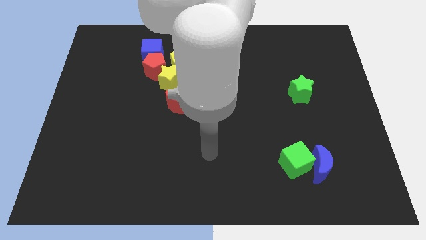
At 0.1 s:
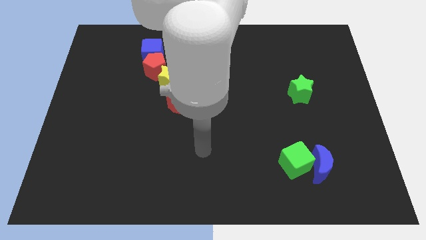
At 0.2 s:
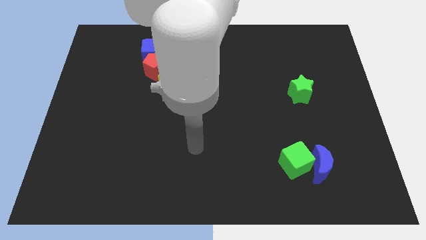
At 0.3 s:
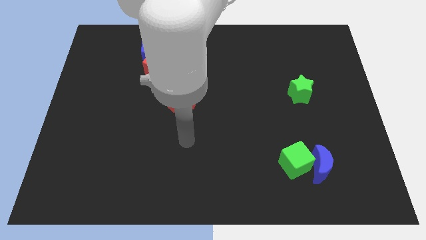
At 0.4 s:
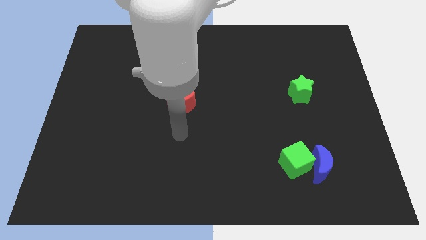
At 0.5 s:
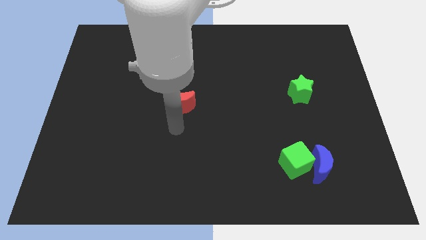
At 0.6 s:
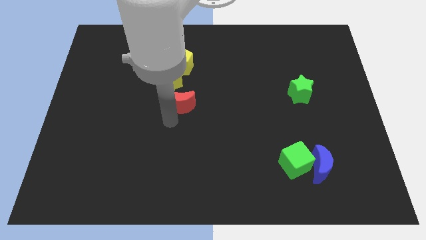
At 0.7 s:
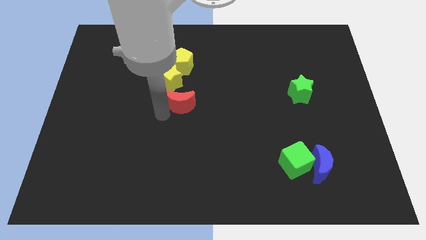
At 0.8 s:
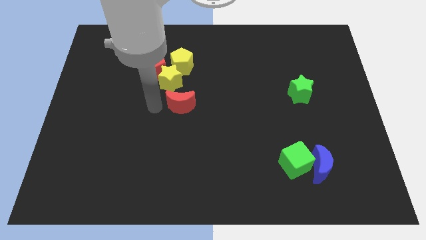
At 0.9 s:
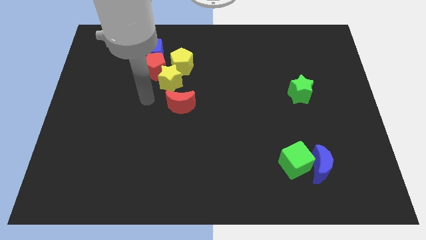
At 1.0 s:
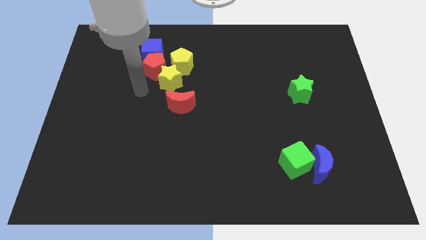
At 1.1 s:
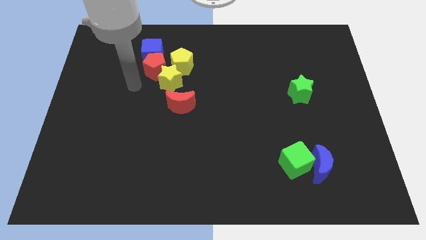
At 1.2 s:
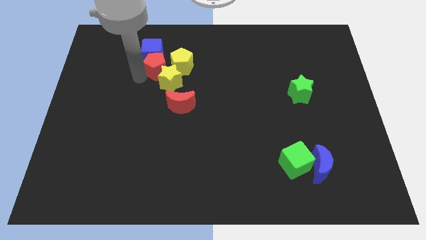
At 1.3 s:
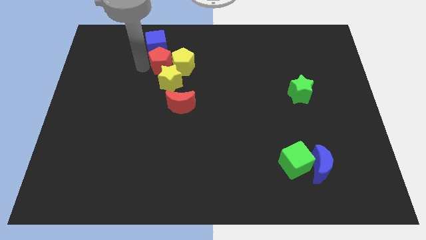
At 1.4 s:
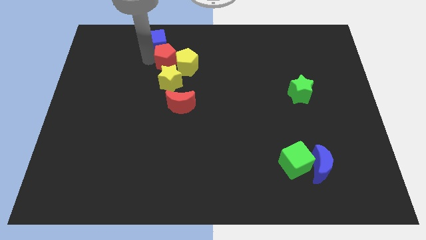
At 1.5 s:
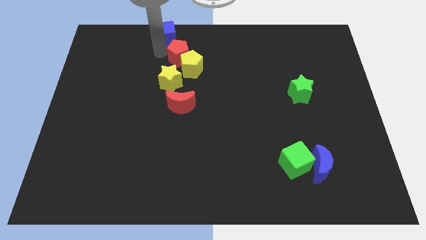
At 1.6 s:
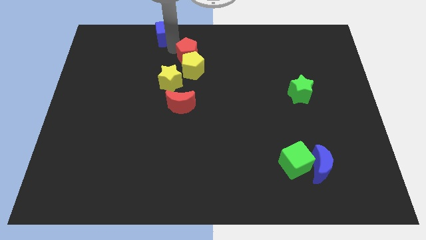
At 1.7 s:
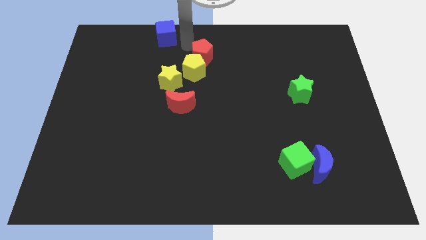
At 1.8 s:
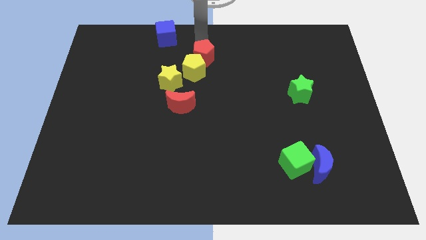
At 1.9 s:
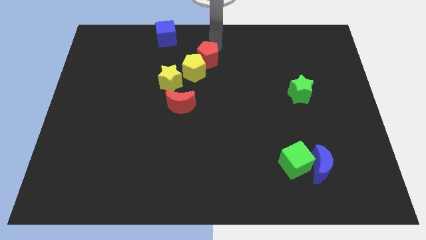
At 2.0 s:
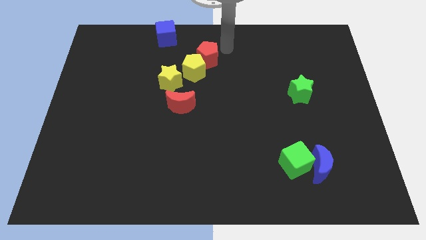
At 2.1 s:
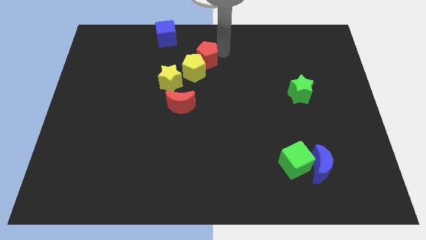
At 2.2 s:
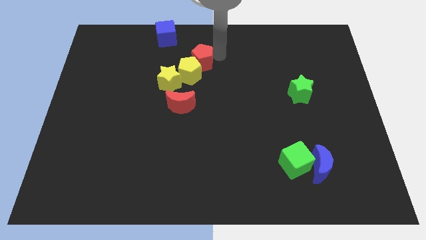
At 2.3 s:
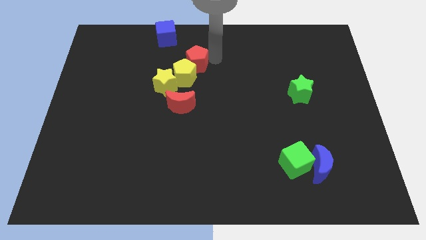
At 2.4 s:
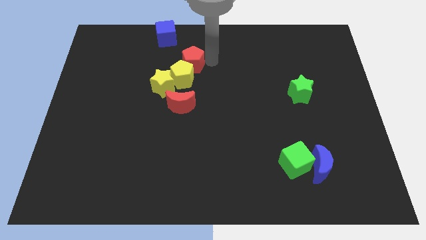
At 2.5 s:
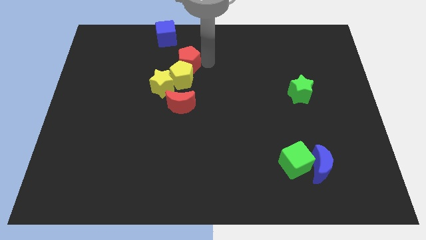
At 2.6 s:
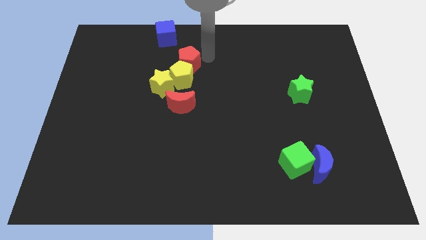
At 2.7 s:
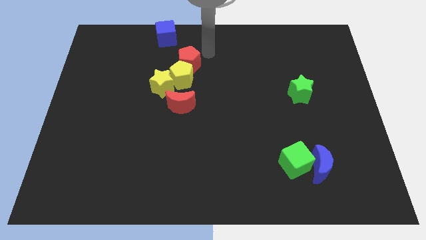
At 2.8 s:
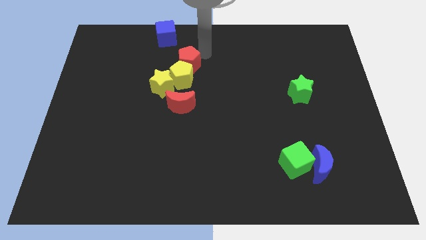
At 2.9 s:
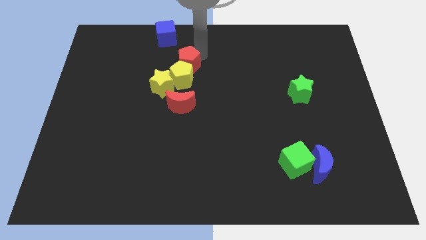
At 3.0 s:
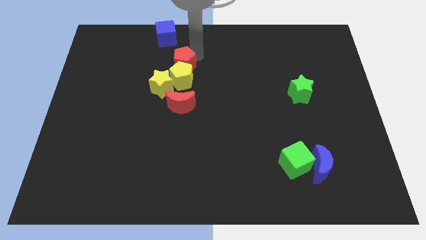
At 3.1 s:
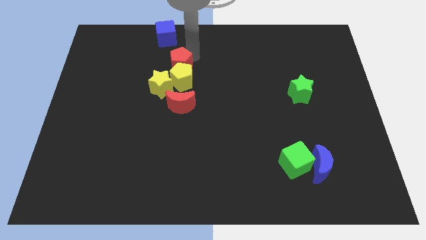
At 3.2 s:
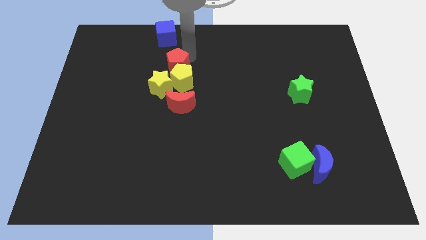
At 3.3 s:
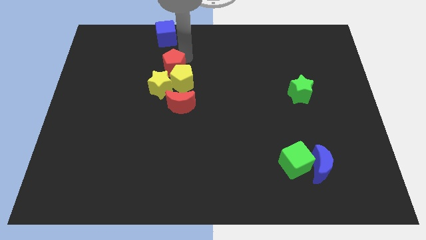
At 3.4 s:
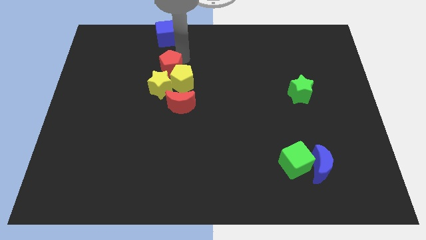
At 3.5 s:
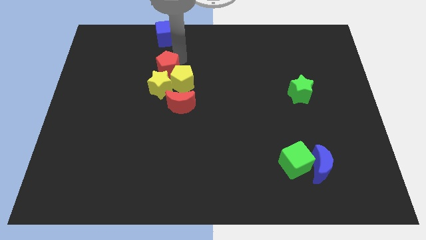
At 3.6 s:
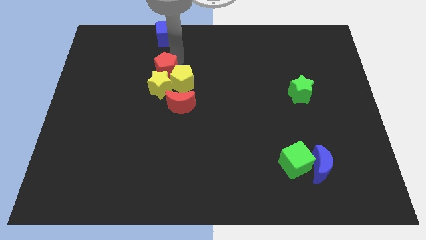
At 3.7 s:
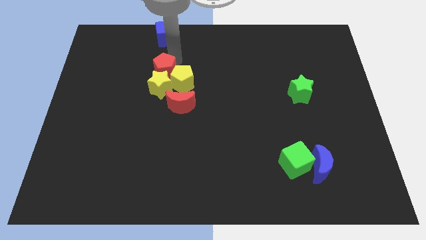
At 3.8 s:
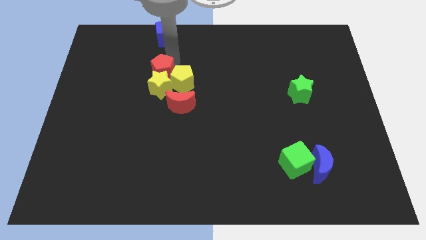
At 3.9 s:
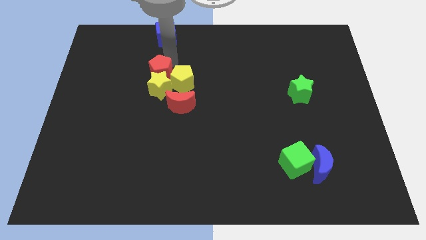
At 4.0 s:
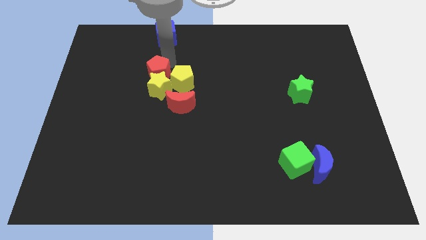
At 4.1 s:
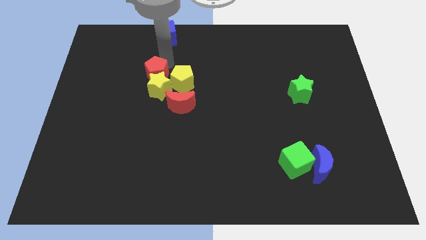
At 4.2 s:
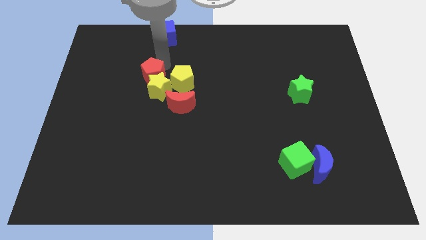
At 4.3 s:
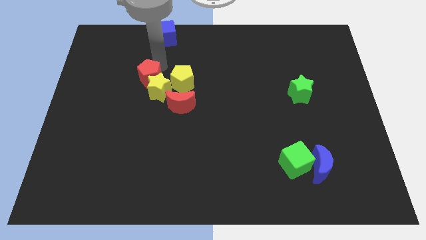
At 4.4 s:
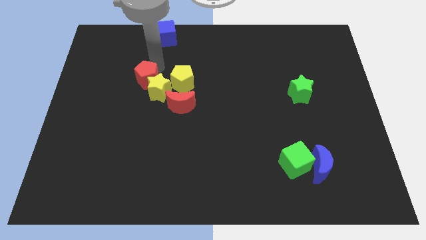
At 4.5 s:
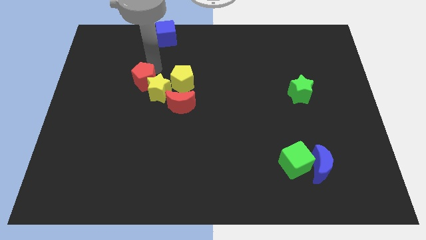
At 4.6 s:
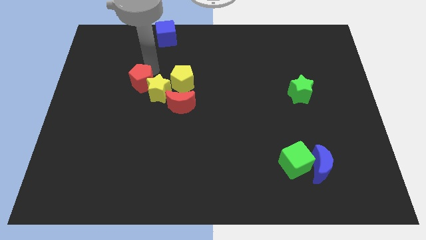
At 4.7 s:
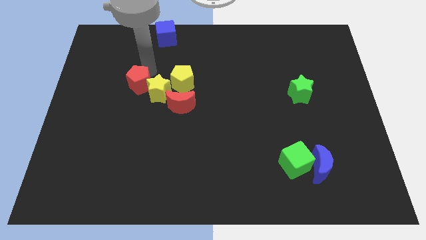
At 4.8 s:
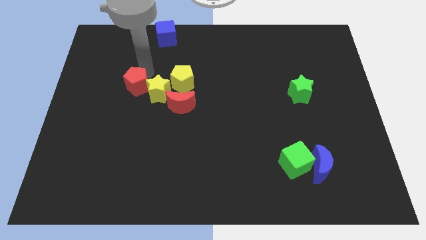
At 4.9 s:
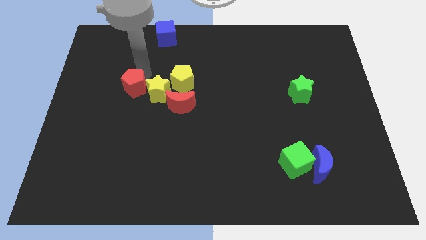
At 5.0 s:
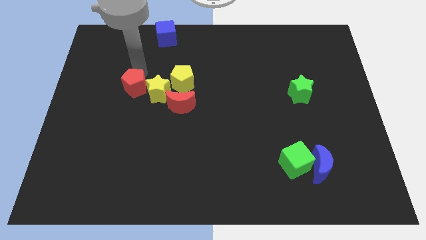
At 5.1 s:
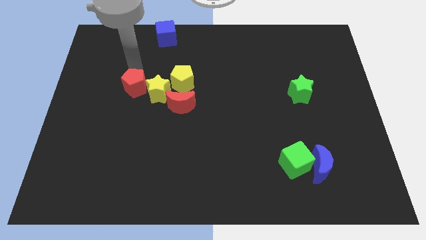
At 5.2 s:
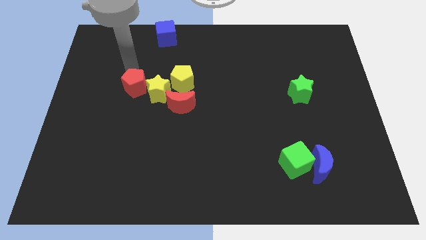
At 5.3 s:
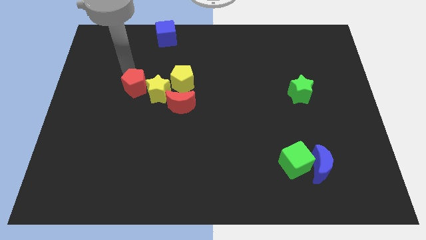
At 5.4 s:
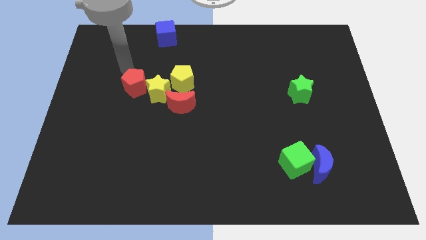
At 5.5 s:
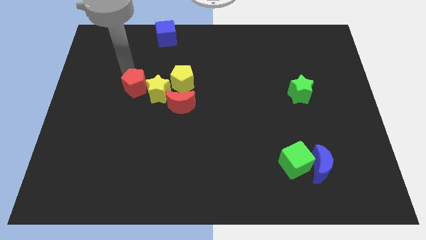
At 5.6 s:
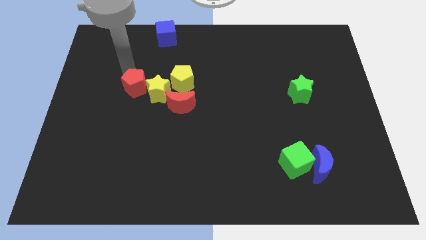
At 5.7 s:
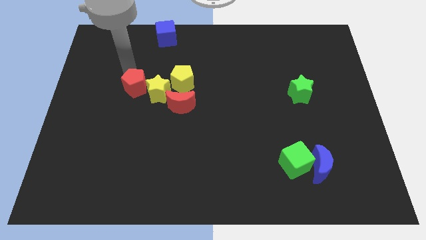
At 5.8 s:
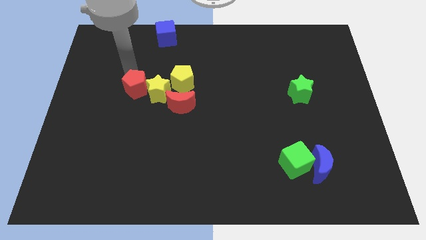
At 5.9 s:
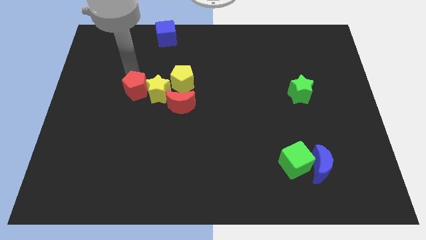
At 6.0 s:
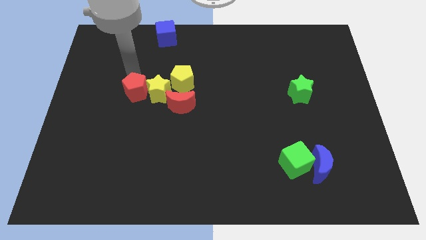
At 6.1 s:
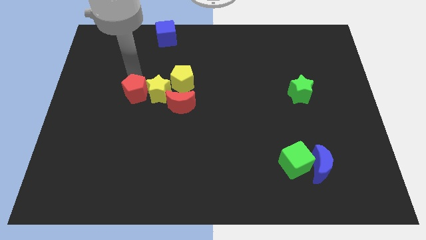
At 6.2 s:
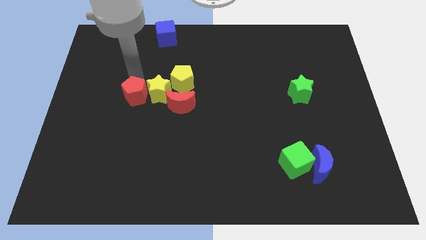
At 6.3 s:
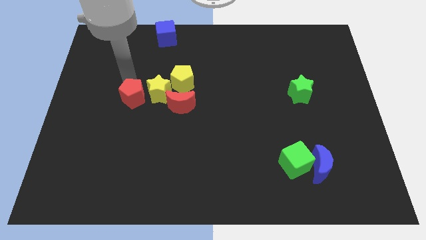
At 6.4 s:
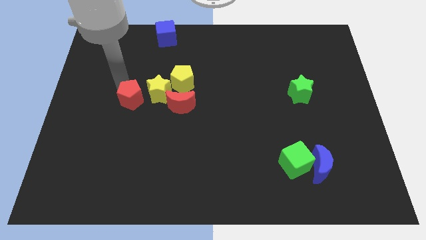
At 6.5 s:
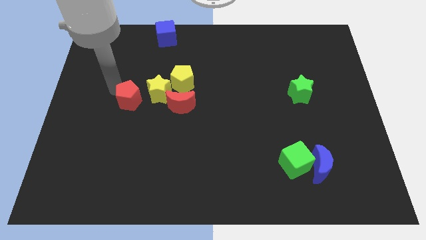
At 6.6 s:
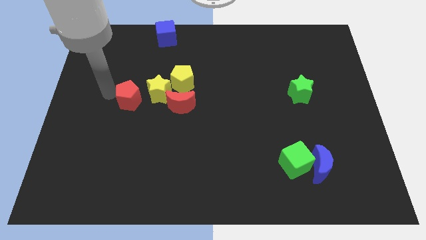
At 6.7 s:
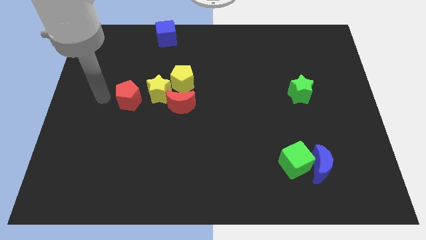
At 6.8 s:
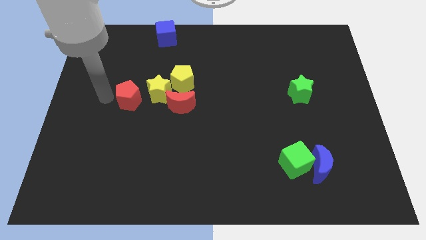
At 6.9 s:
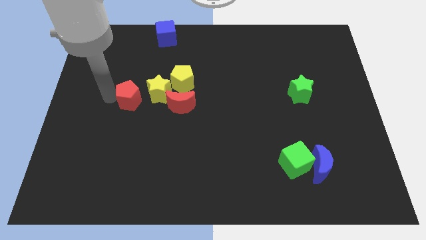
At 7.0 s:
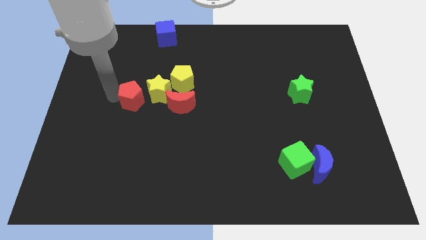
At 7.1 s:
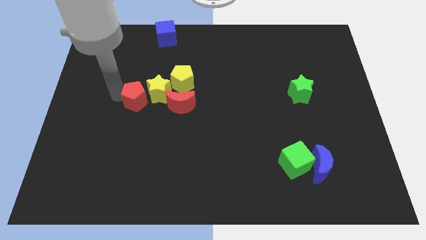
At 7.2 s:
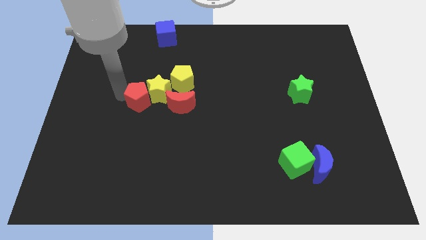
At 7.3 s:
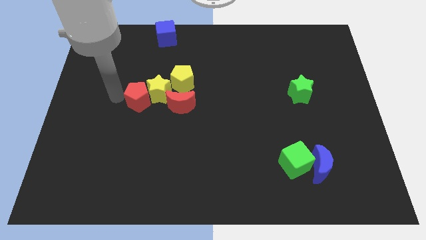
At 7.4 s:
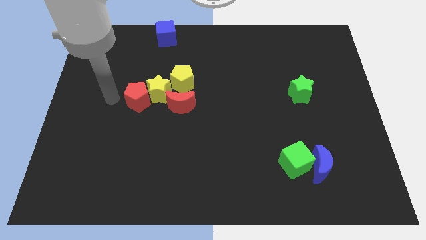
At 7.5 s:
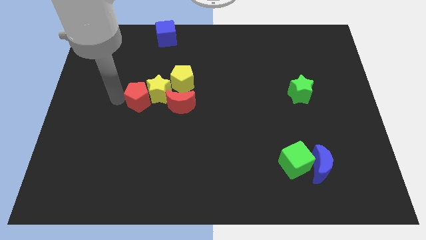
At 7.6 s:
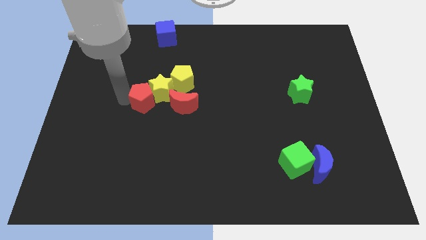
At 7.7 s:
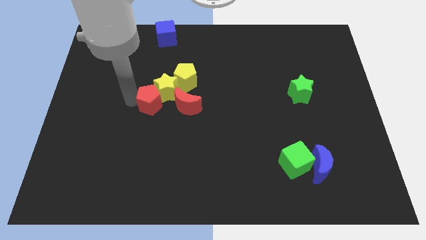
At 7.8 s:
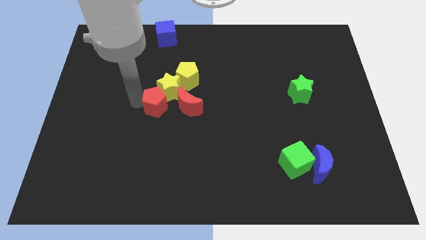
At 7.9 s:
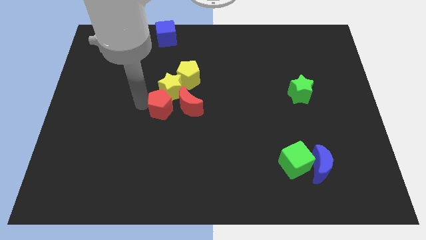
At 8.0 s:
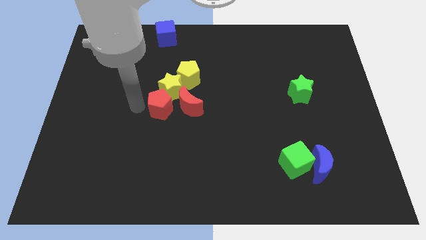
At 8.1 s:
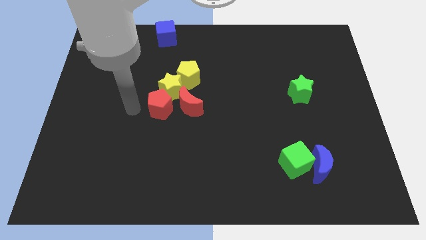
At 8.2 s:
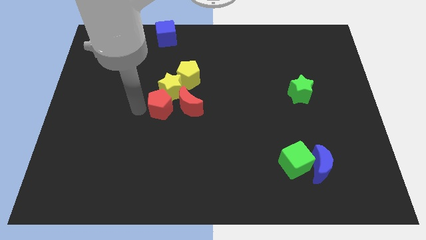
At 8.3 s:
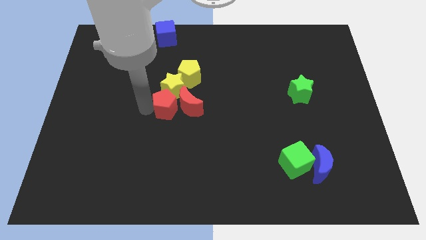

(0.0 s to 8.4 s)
push the red pentagon to the red moon
